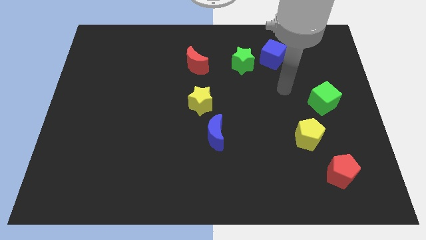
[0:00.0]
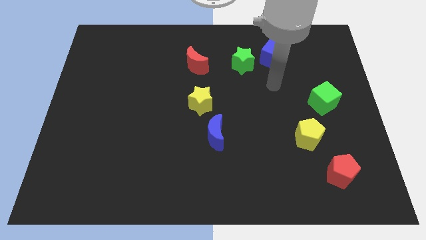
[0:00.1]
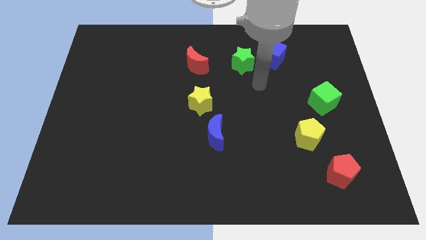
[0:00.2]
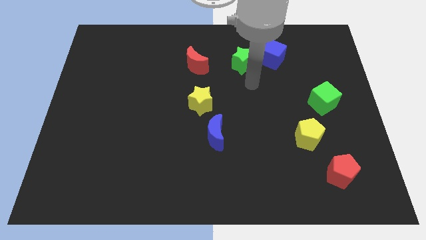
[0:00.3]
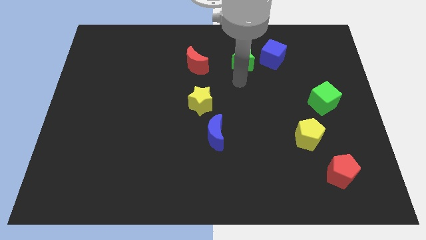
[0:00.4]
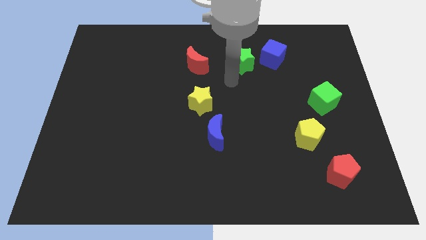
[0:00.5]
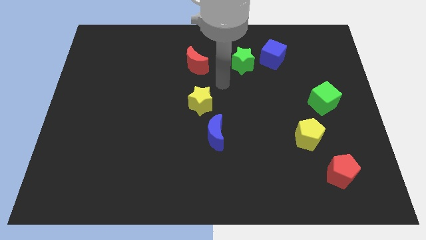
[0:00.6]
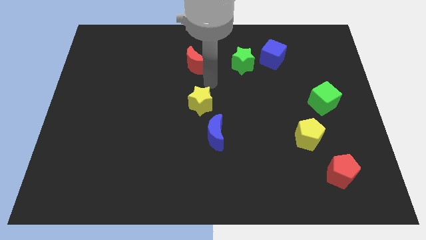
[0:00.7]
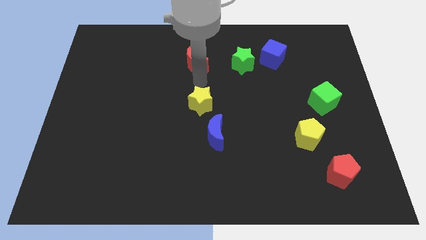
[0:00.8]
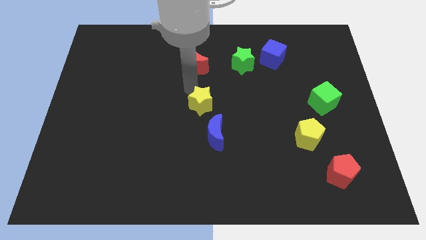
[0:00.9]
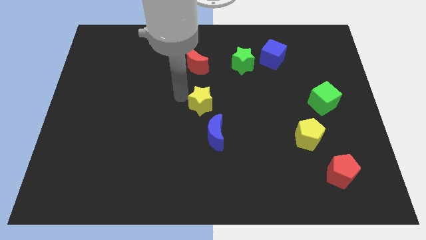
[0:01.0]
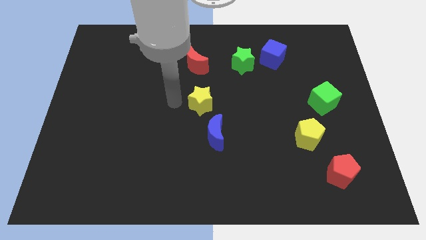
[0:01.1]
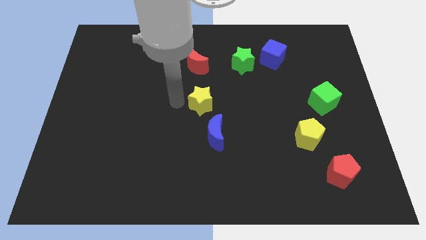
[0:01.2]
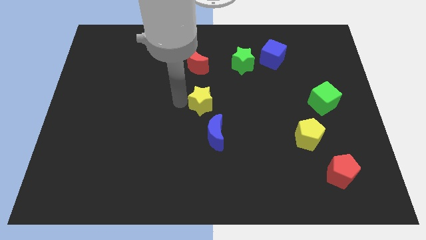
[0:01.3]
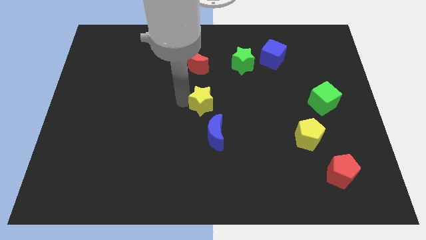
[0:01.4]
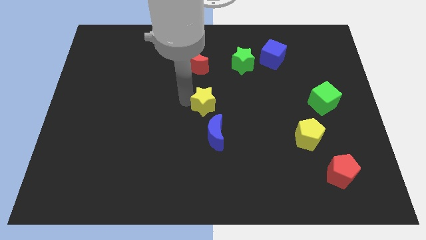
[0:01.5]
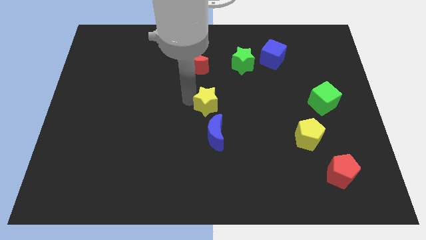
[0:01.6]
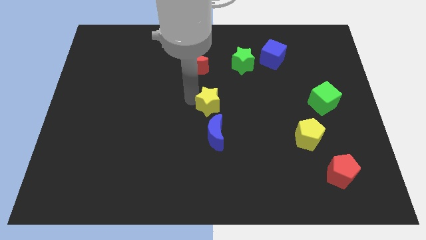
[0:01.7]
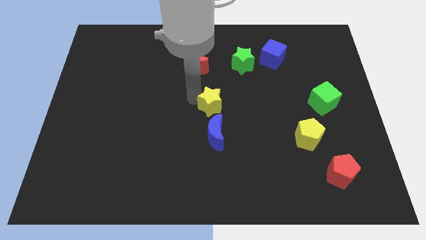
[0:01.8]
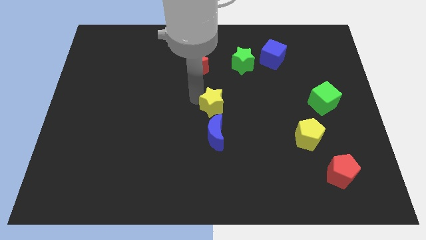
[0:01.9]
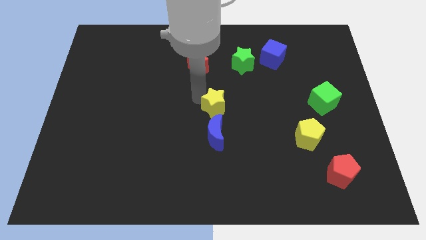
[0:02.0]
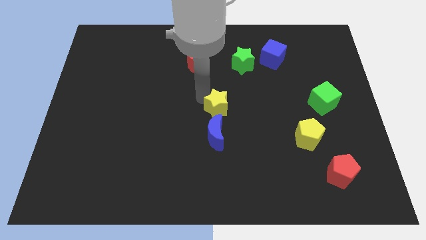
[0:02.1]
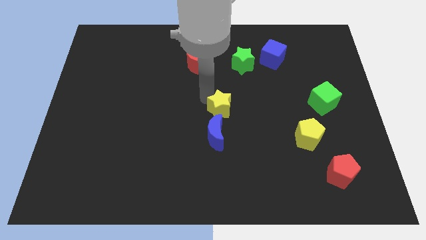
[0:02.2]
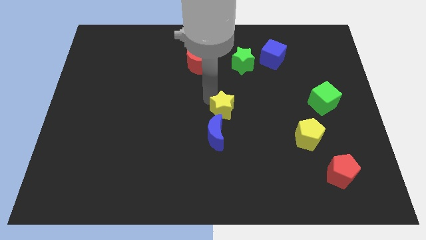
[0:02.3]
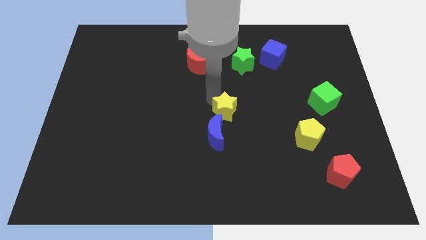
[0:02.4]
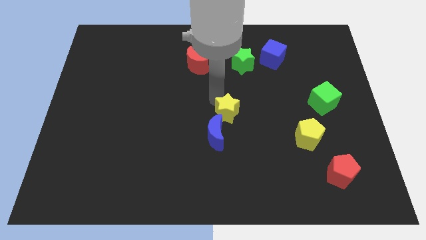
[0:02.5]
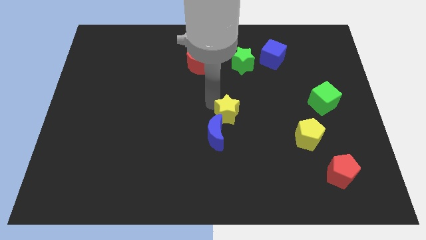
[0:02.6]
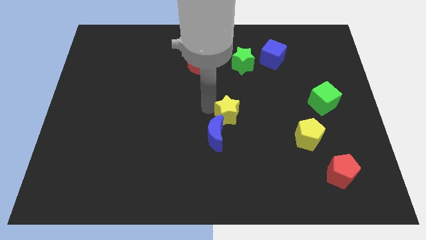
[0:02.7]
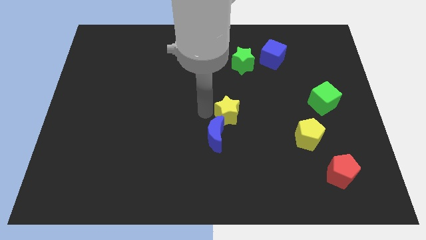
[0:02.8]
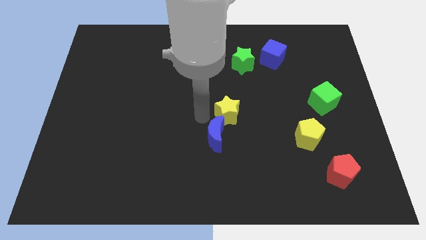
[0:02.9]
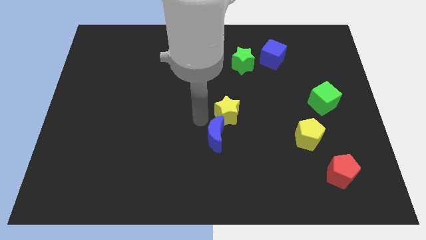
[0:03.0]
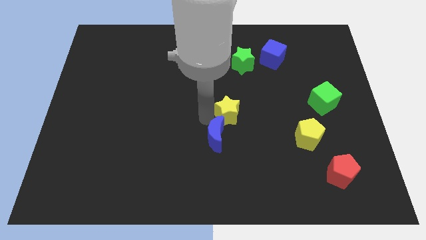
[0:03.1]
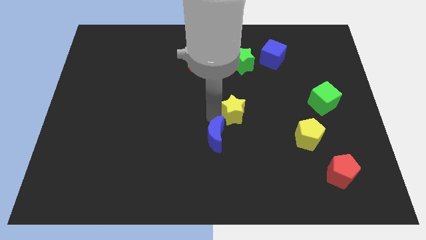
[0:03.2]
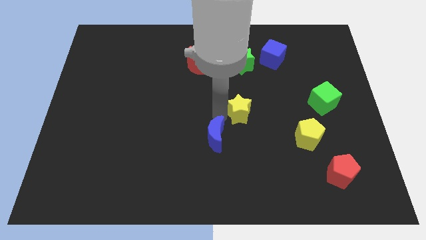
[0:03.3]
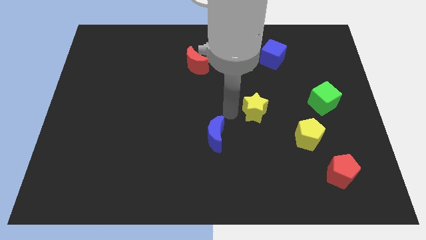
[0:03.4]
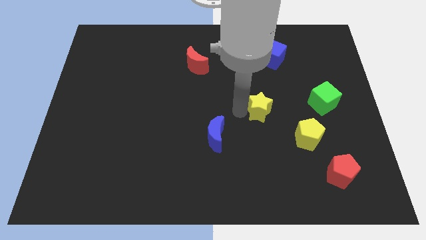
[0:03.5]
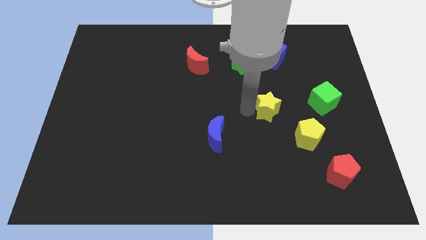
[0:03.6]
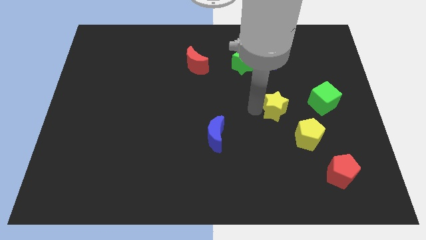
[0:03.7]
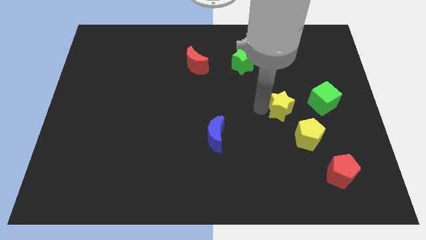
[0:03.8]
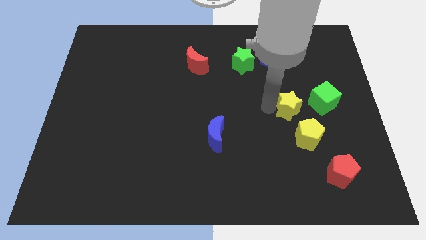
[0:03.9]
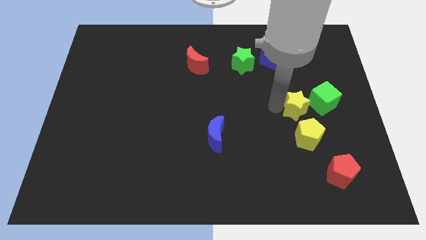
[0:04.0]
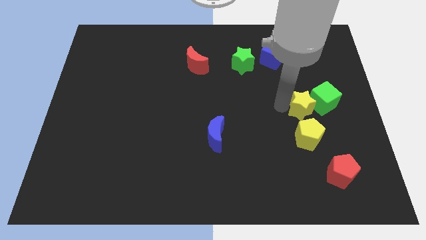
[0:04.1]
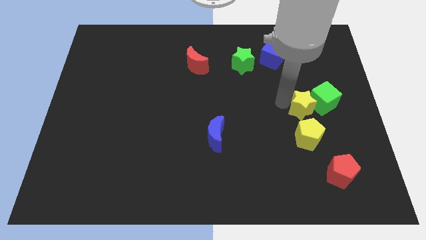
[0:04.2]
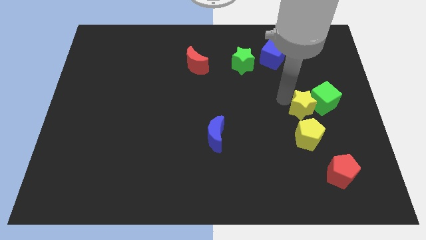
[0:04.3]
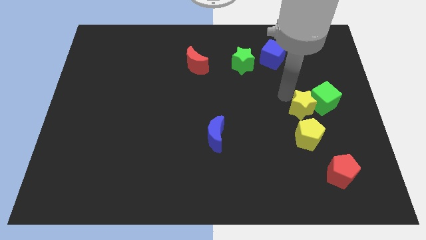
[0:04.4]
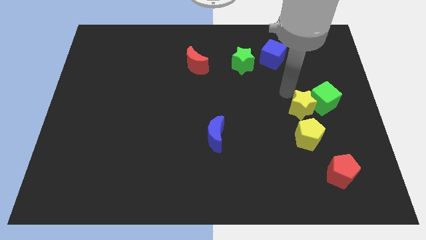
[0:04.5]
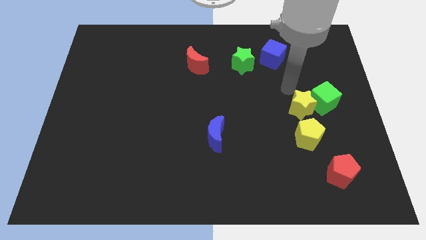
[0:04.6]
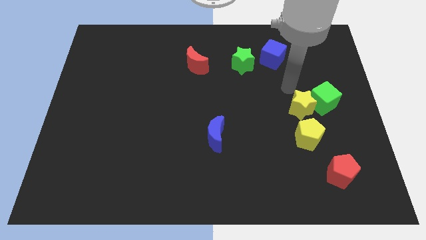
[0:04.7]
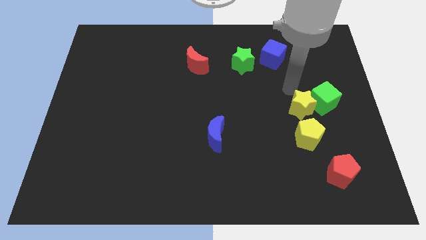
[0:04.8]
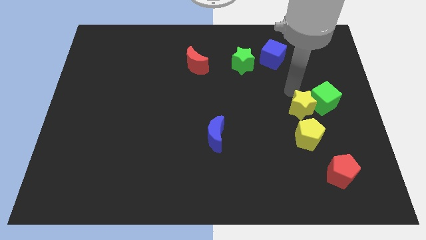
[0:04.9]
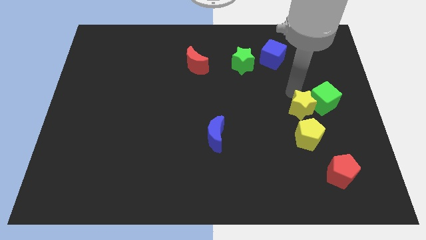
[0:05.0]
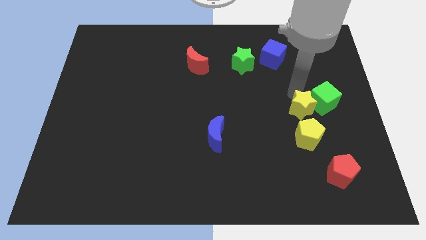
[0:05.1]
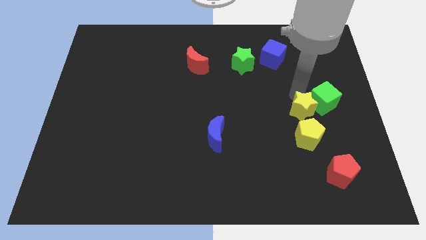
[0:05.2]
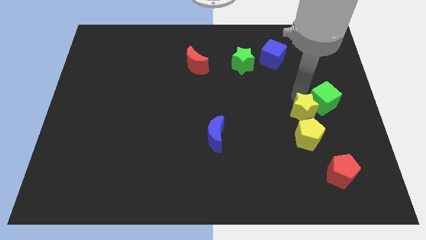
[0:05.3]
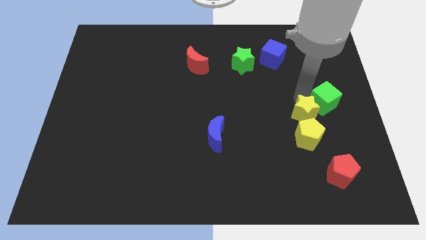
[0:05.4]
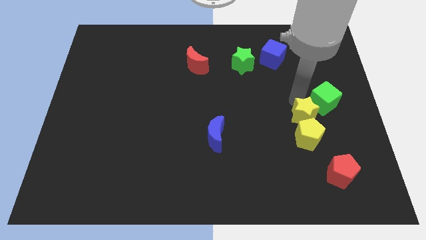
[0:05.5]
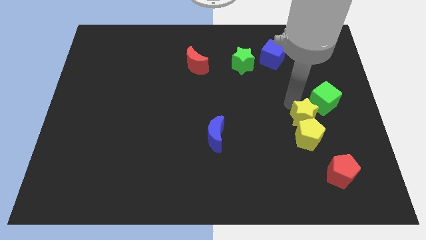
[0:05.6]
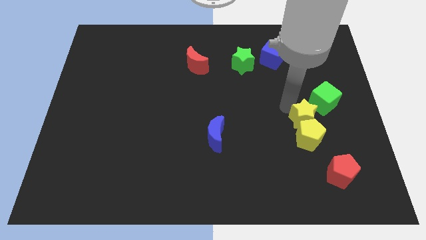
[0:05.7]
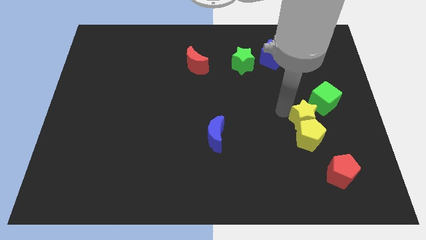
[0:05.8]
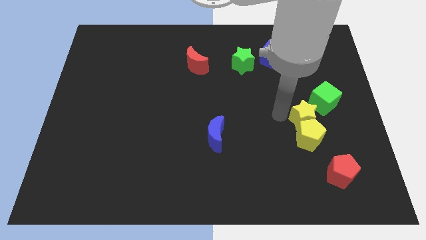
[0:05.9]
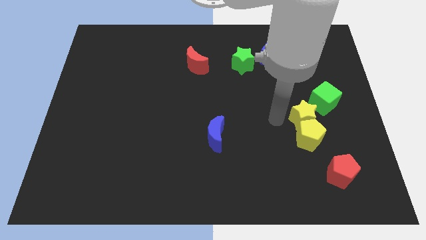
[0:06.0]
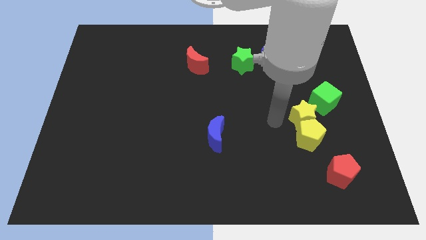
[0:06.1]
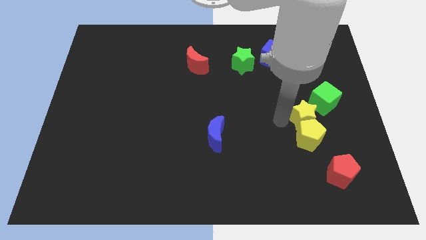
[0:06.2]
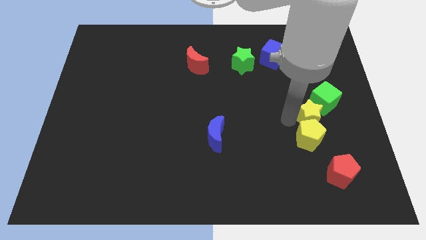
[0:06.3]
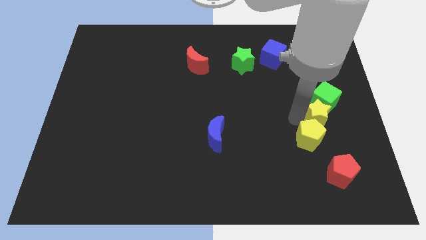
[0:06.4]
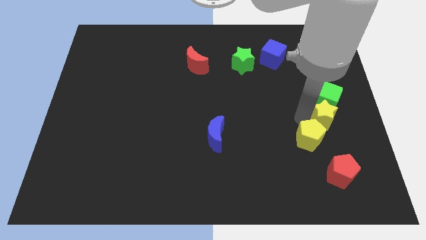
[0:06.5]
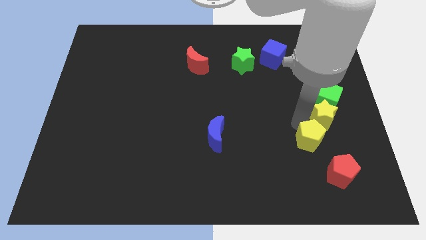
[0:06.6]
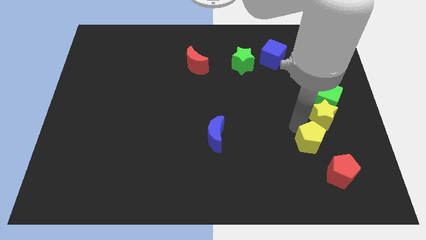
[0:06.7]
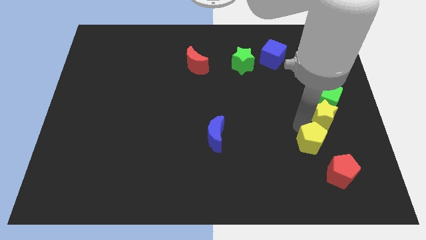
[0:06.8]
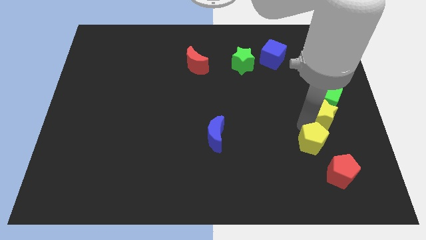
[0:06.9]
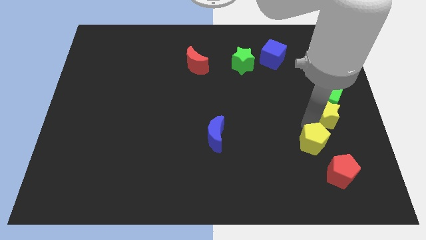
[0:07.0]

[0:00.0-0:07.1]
push the yellow star to the right side

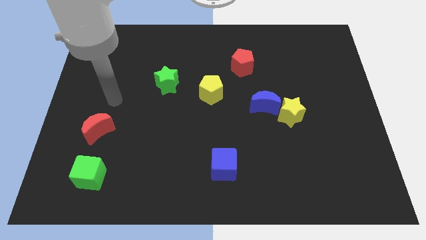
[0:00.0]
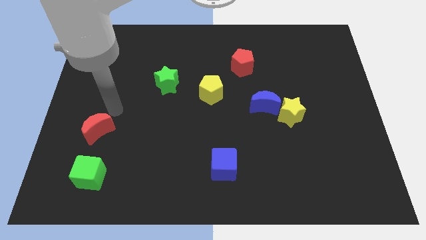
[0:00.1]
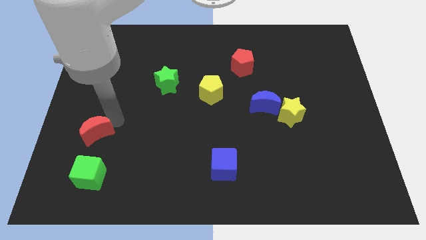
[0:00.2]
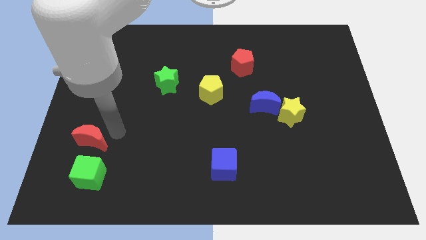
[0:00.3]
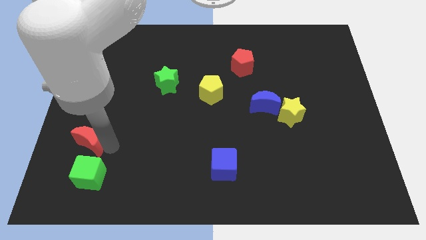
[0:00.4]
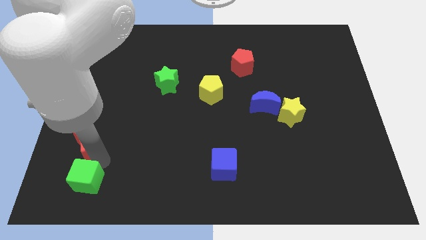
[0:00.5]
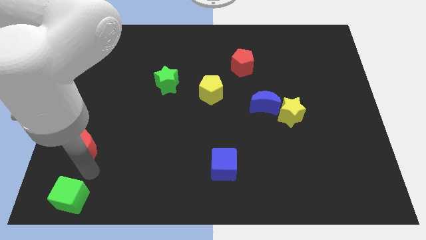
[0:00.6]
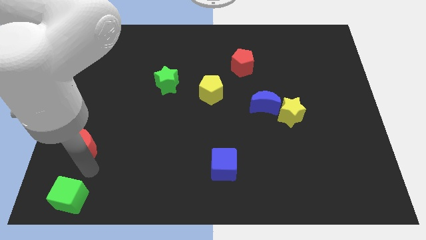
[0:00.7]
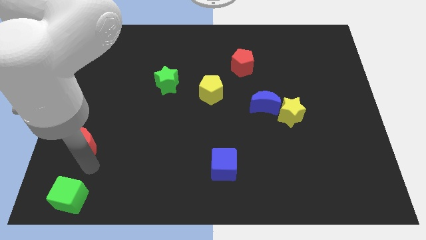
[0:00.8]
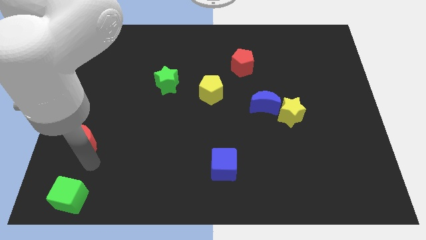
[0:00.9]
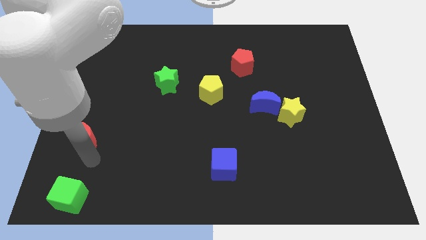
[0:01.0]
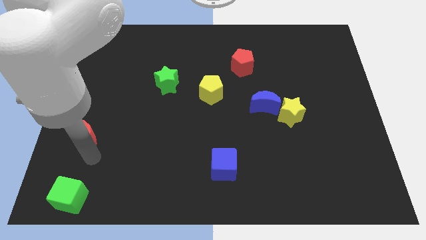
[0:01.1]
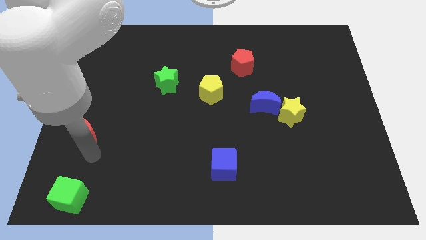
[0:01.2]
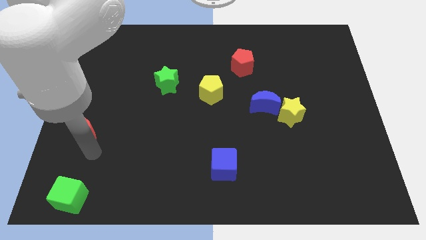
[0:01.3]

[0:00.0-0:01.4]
put the red moon to the left side
